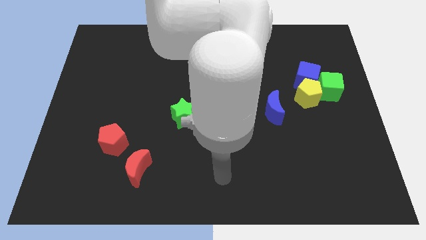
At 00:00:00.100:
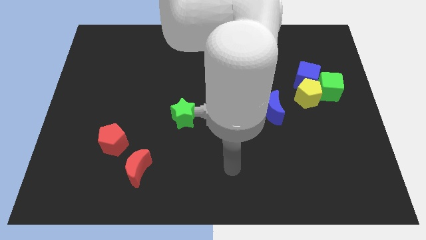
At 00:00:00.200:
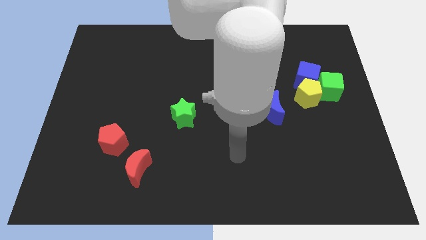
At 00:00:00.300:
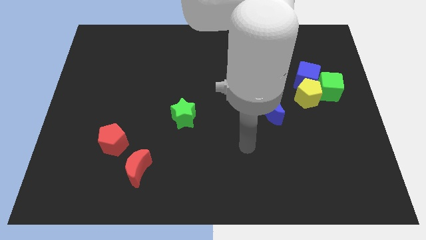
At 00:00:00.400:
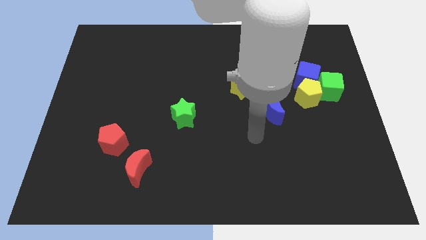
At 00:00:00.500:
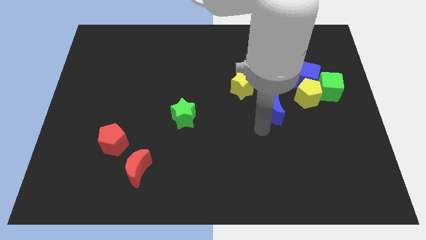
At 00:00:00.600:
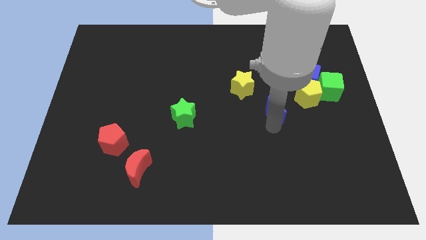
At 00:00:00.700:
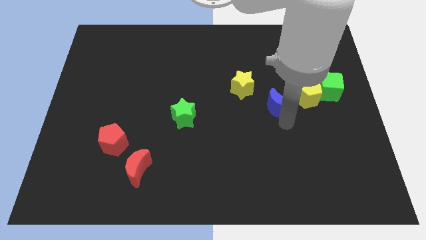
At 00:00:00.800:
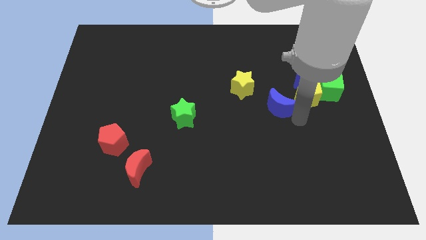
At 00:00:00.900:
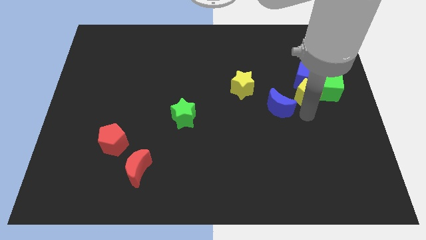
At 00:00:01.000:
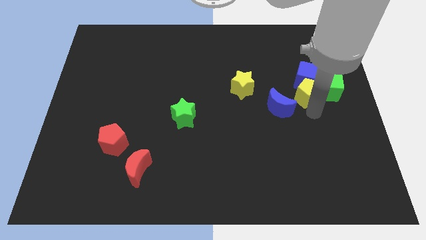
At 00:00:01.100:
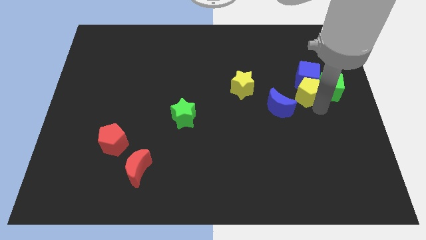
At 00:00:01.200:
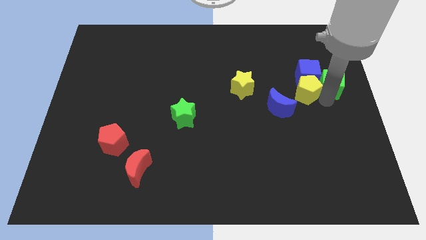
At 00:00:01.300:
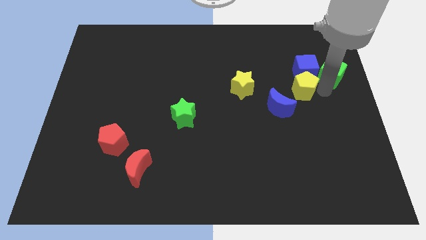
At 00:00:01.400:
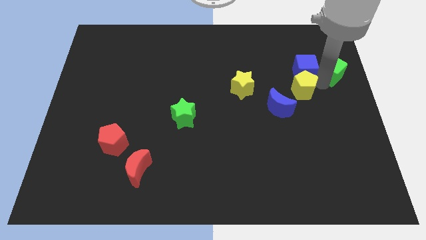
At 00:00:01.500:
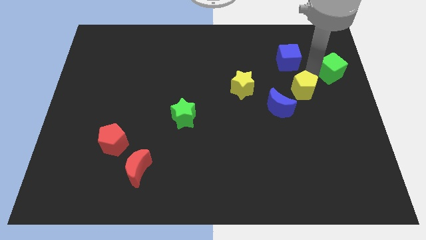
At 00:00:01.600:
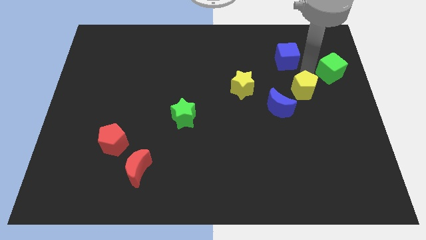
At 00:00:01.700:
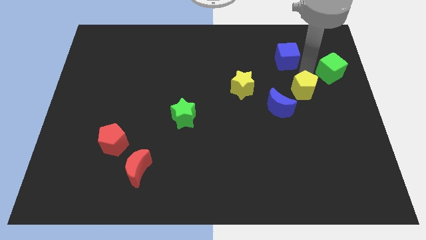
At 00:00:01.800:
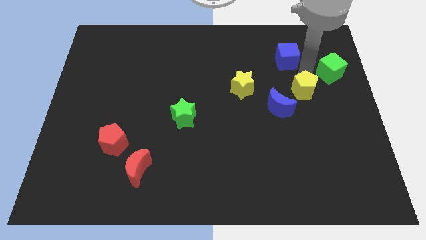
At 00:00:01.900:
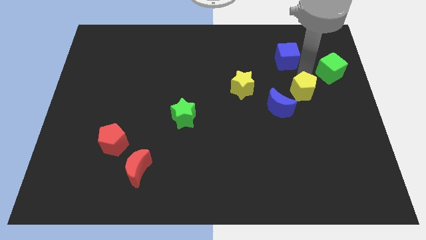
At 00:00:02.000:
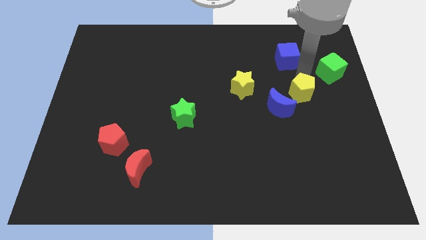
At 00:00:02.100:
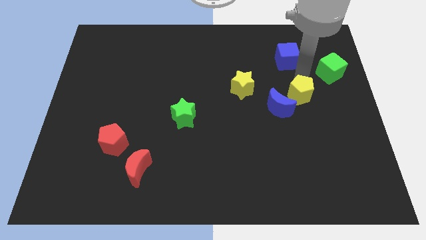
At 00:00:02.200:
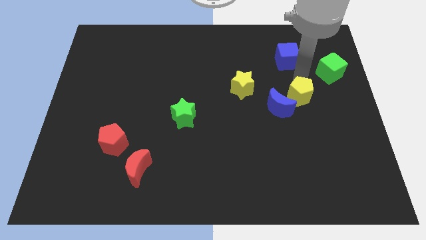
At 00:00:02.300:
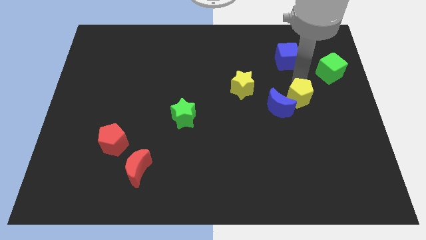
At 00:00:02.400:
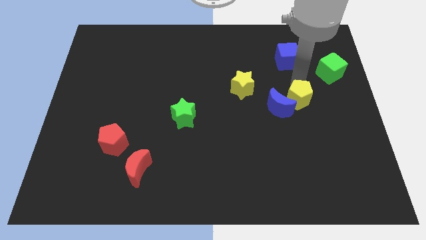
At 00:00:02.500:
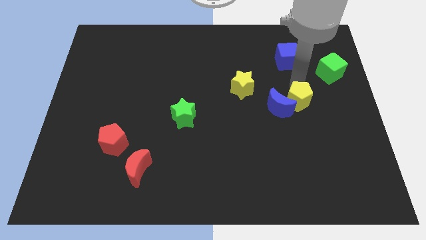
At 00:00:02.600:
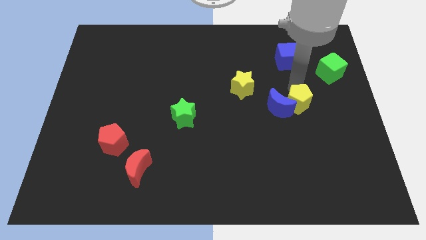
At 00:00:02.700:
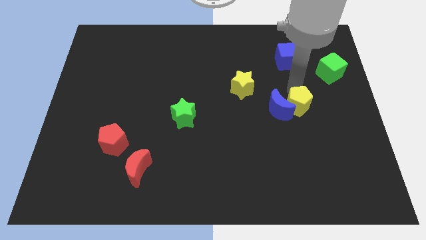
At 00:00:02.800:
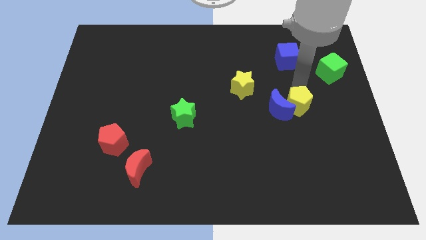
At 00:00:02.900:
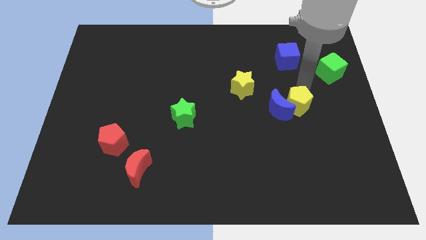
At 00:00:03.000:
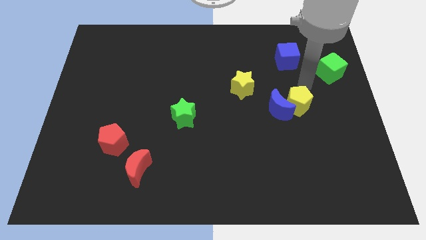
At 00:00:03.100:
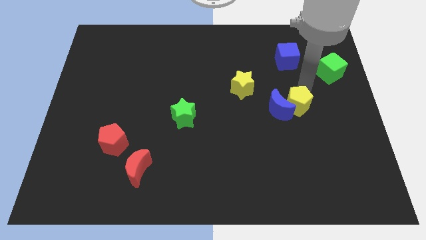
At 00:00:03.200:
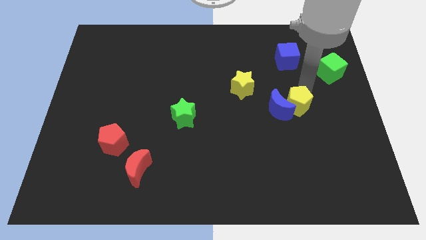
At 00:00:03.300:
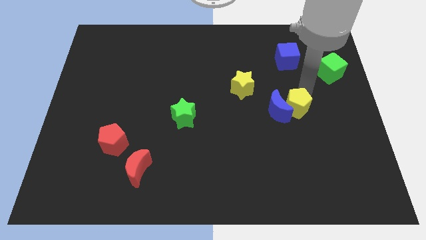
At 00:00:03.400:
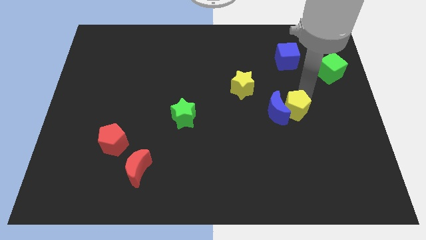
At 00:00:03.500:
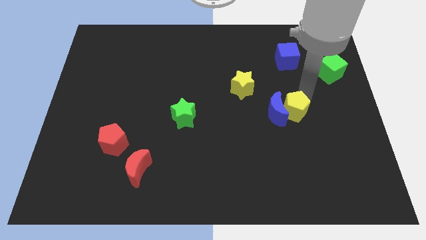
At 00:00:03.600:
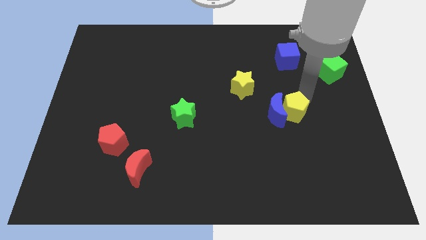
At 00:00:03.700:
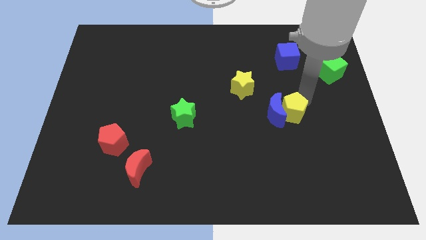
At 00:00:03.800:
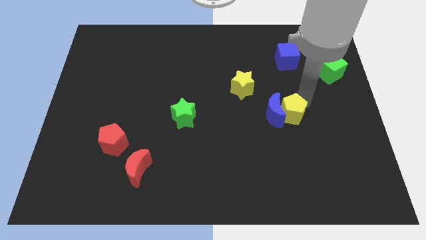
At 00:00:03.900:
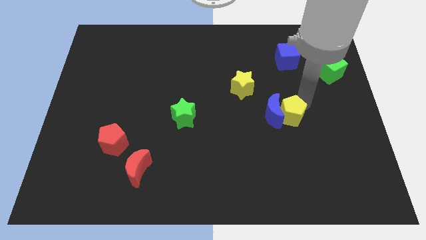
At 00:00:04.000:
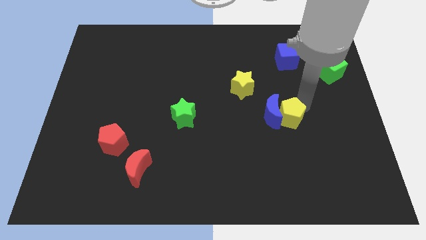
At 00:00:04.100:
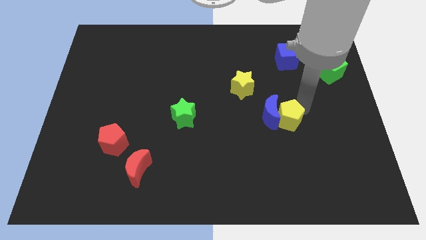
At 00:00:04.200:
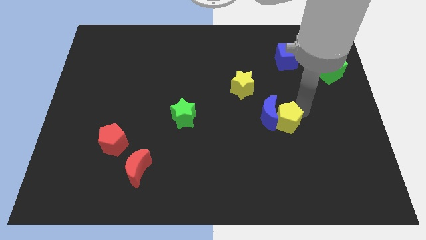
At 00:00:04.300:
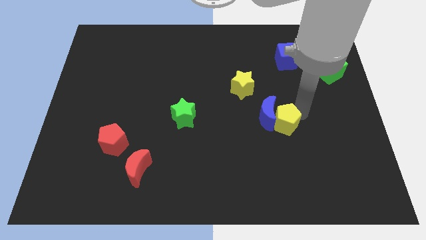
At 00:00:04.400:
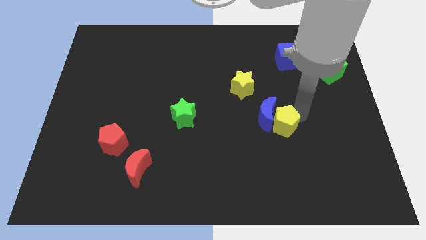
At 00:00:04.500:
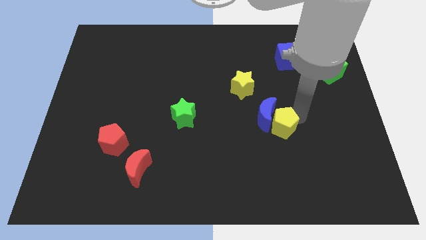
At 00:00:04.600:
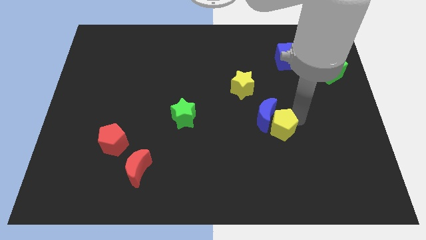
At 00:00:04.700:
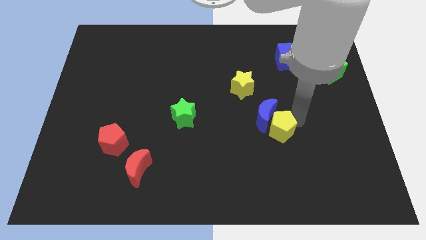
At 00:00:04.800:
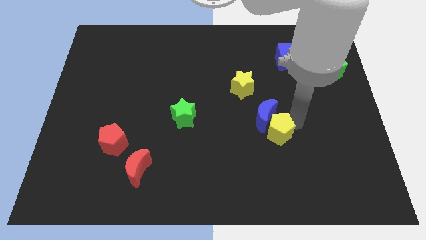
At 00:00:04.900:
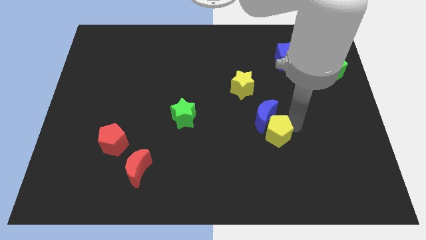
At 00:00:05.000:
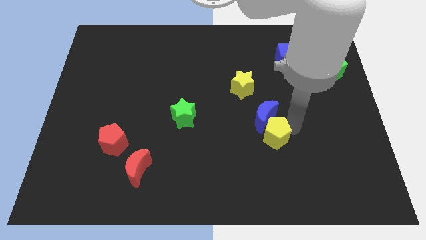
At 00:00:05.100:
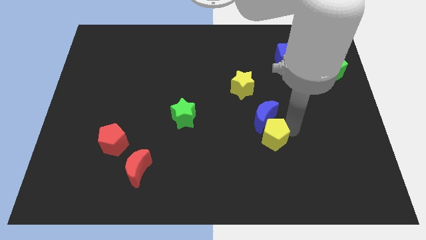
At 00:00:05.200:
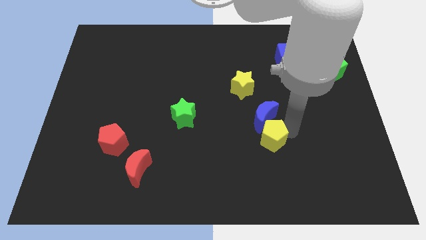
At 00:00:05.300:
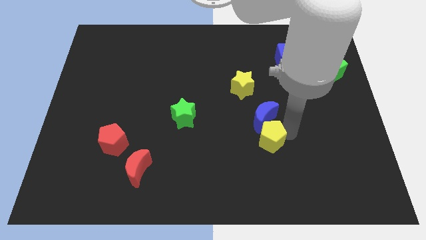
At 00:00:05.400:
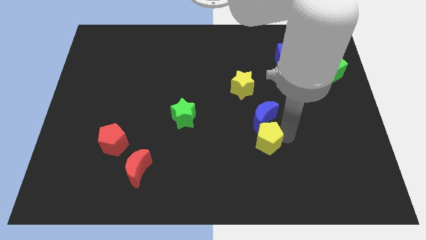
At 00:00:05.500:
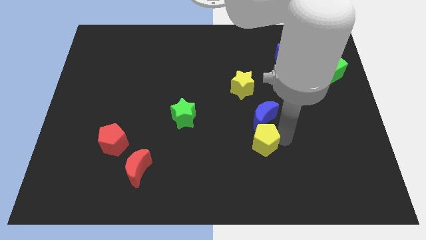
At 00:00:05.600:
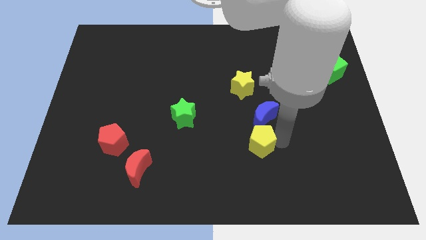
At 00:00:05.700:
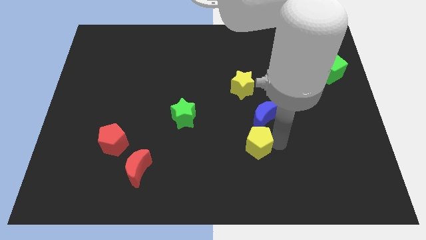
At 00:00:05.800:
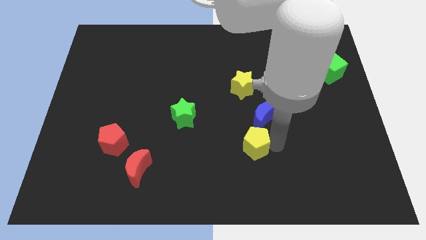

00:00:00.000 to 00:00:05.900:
push the yellow pentagon downwards and to the left

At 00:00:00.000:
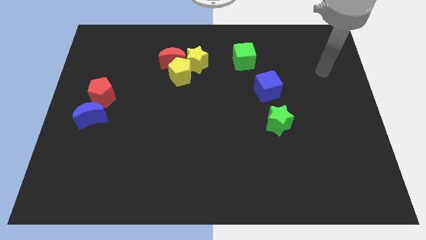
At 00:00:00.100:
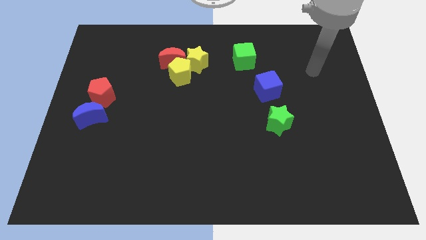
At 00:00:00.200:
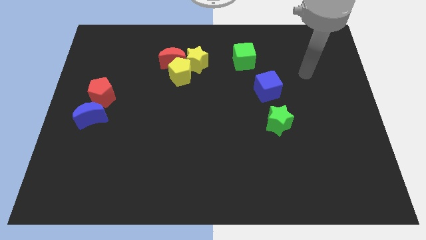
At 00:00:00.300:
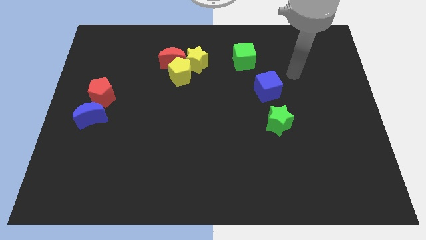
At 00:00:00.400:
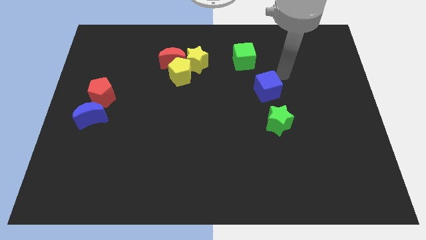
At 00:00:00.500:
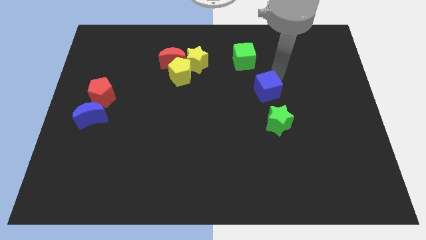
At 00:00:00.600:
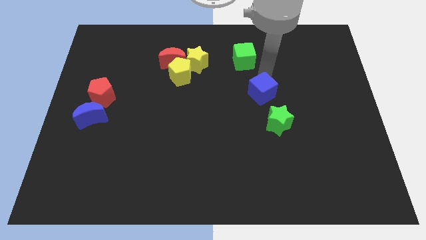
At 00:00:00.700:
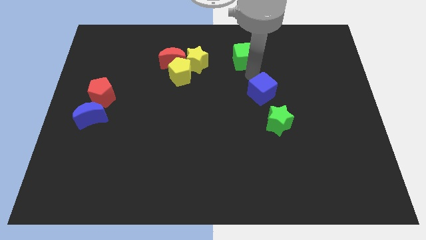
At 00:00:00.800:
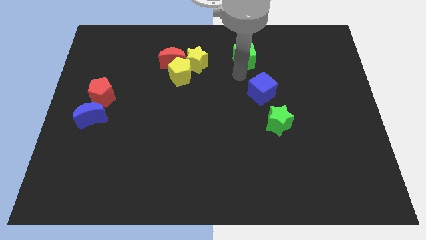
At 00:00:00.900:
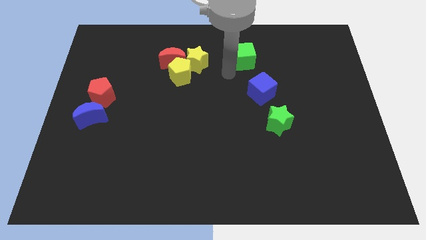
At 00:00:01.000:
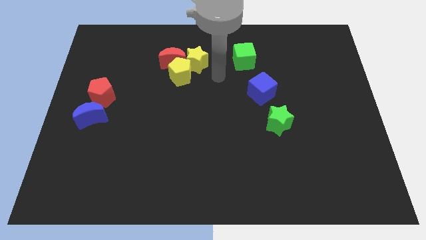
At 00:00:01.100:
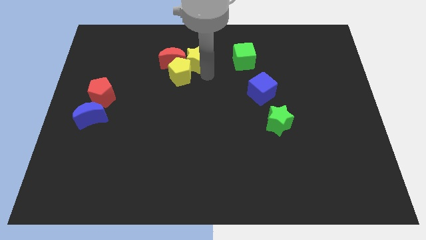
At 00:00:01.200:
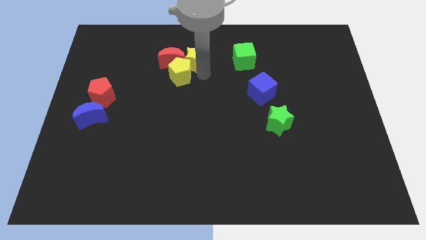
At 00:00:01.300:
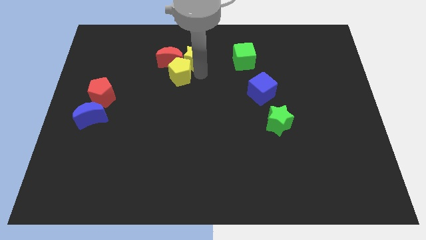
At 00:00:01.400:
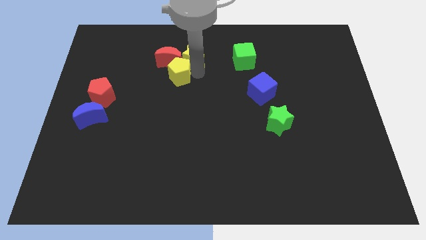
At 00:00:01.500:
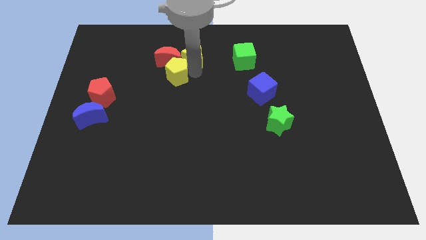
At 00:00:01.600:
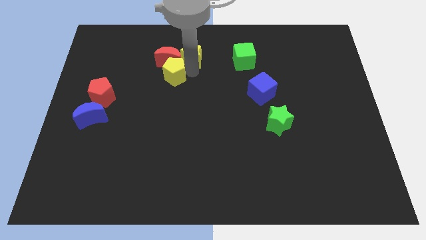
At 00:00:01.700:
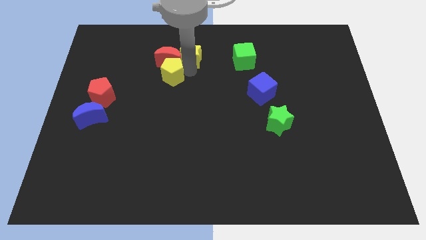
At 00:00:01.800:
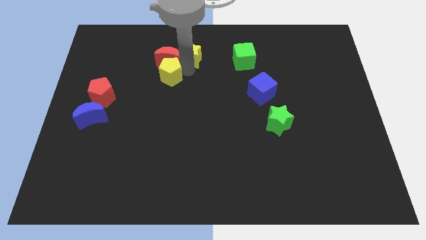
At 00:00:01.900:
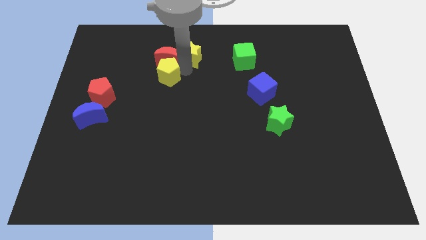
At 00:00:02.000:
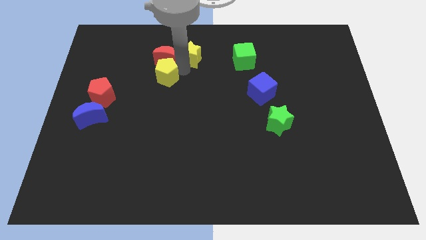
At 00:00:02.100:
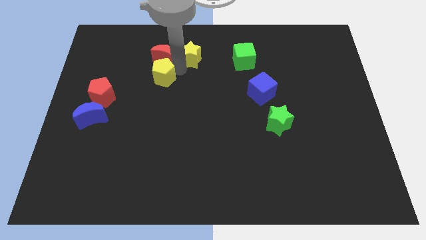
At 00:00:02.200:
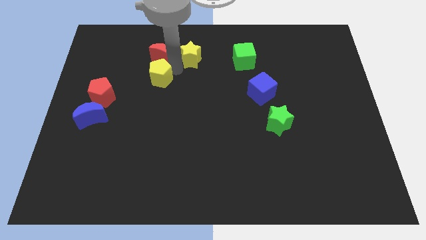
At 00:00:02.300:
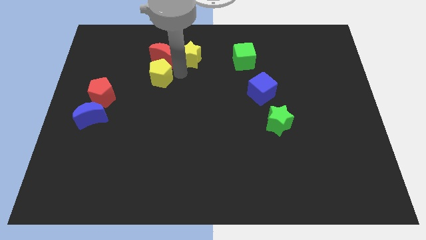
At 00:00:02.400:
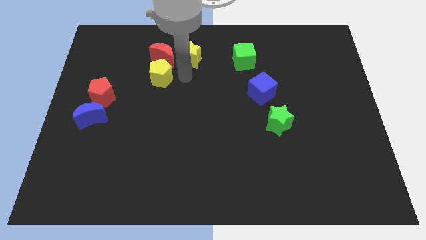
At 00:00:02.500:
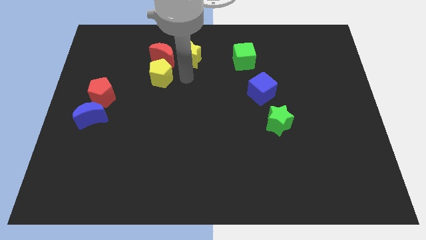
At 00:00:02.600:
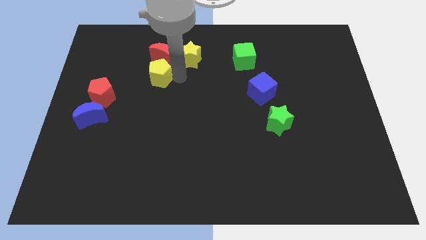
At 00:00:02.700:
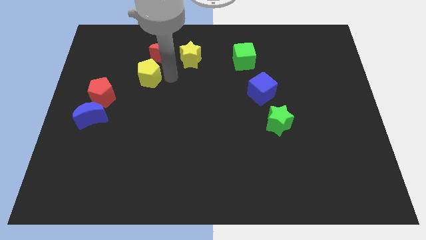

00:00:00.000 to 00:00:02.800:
push the yellow pentagon left slightly
